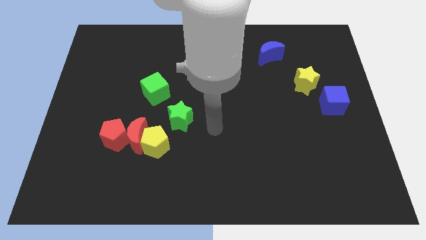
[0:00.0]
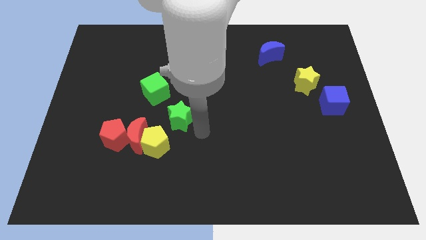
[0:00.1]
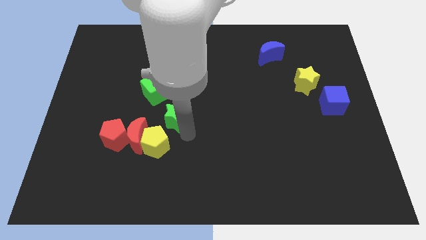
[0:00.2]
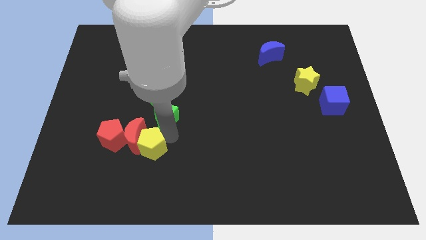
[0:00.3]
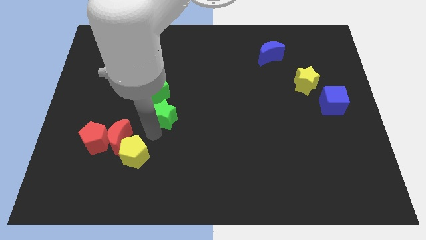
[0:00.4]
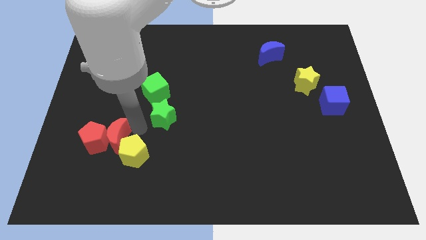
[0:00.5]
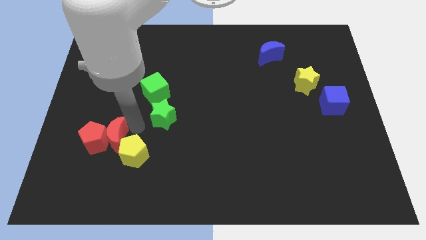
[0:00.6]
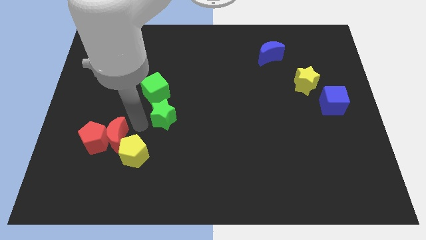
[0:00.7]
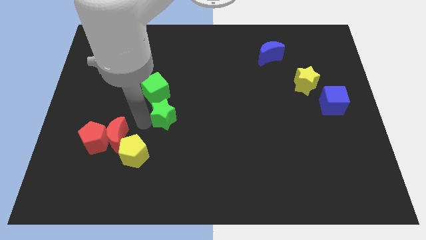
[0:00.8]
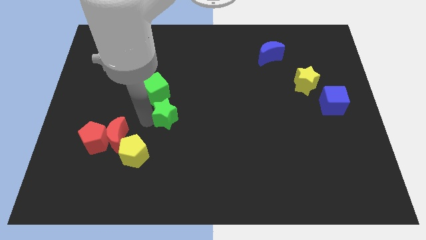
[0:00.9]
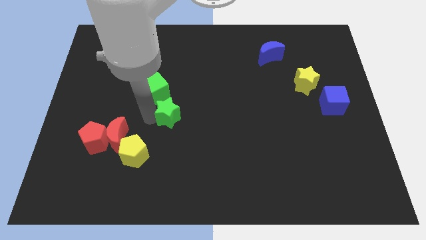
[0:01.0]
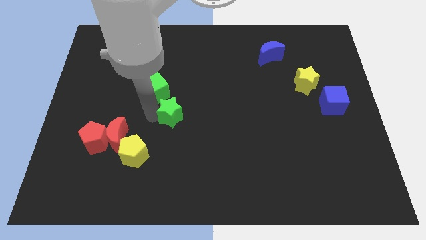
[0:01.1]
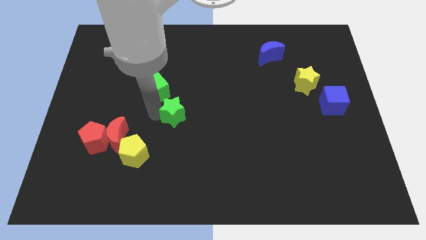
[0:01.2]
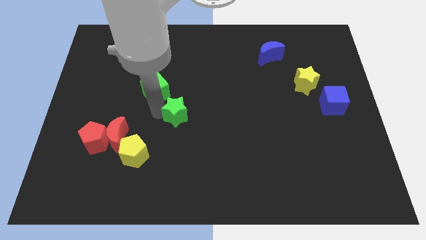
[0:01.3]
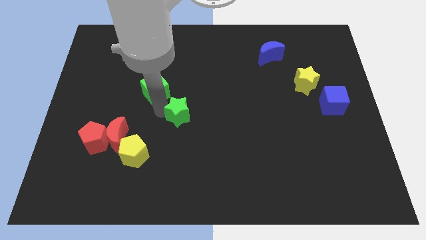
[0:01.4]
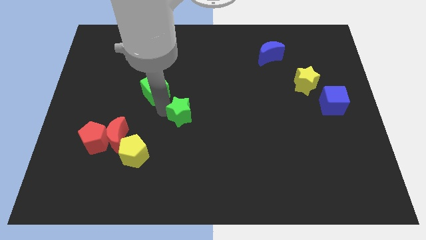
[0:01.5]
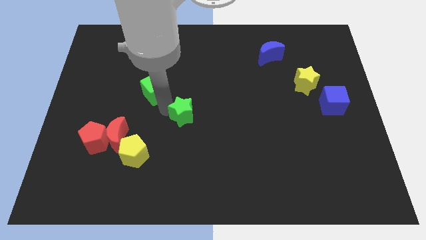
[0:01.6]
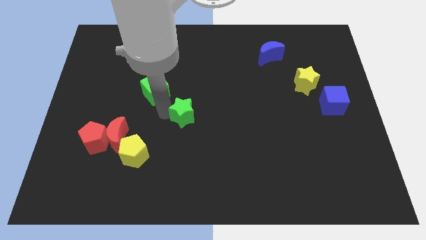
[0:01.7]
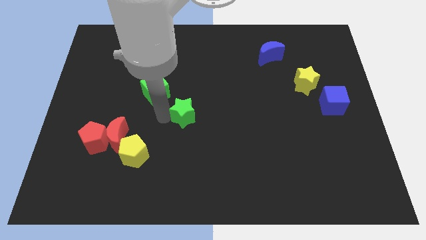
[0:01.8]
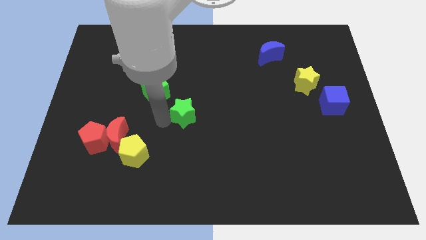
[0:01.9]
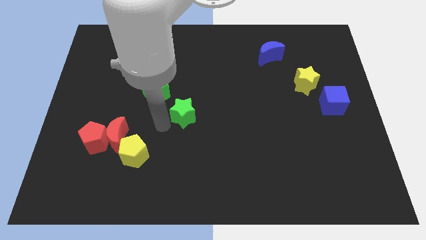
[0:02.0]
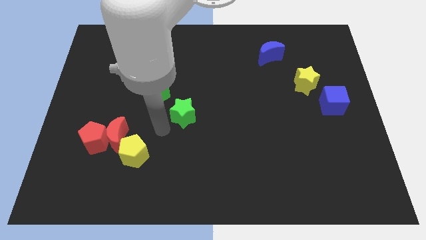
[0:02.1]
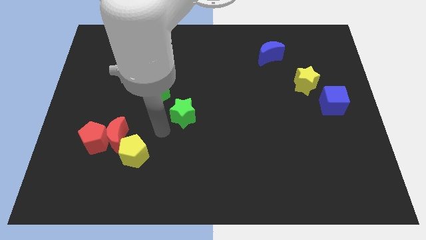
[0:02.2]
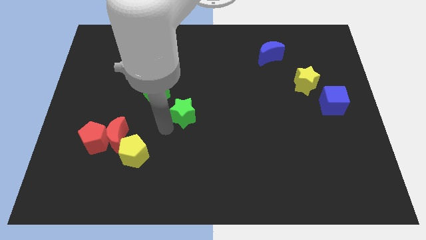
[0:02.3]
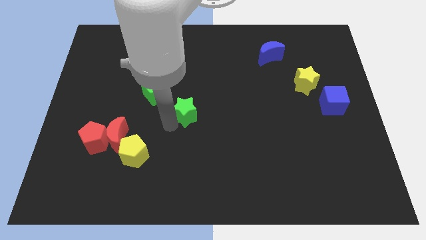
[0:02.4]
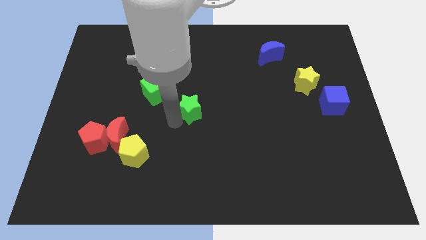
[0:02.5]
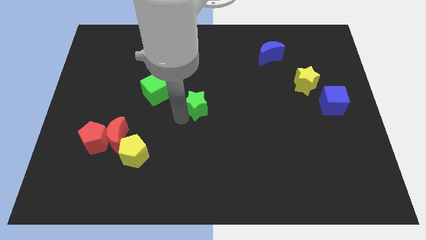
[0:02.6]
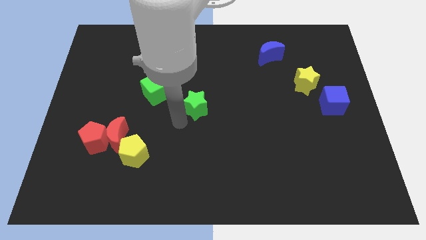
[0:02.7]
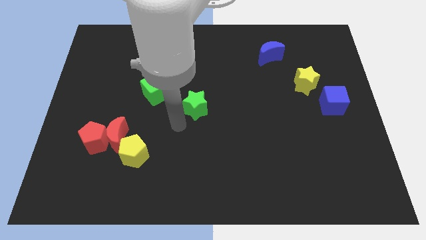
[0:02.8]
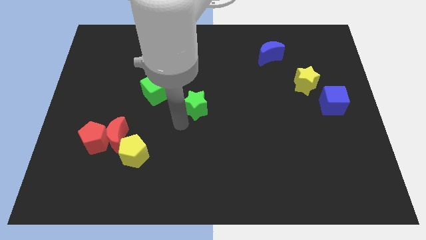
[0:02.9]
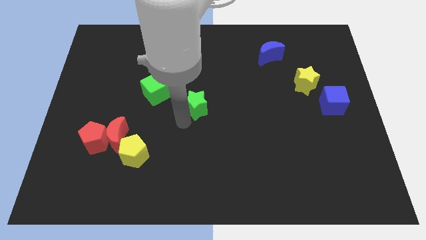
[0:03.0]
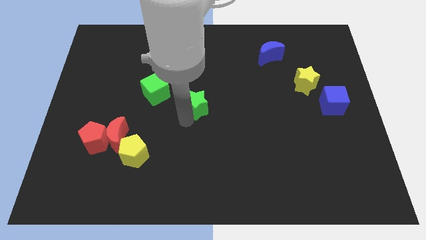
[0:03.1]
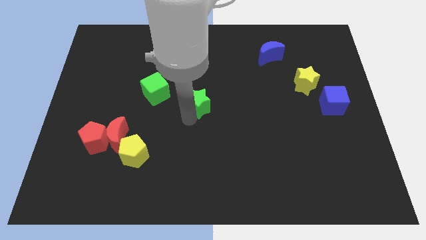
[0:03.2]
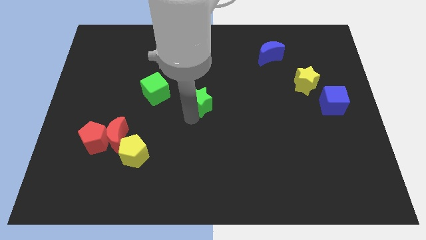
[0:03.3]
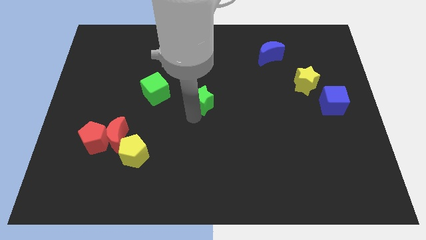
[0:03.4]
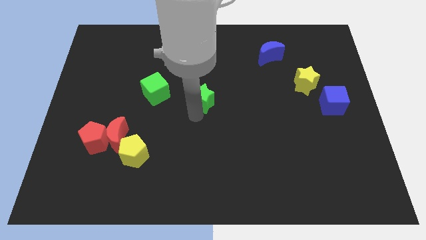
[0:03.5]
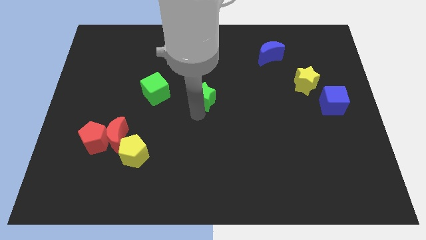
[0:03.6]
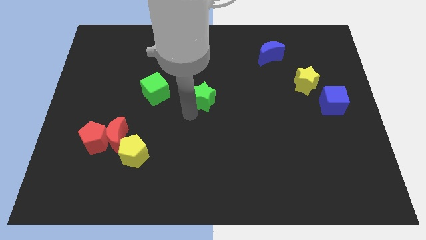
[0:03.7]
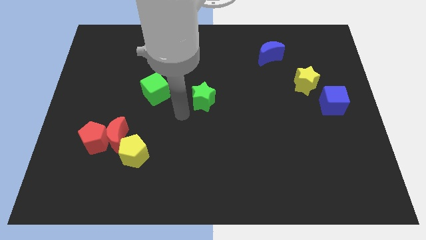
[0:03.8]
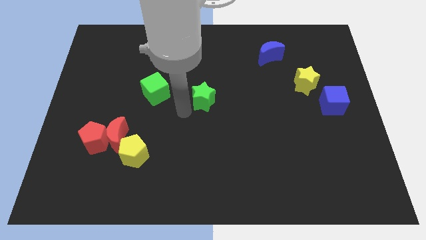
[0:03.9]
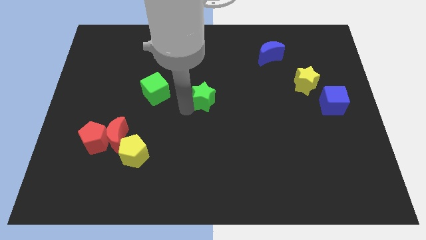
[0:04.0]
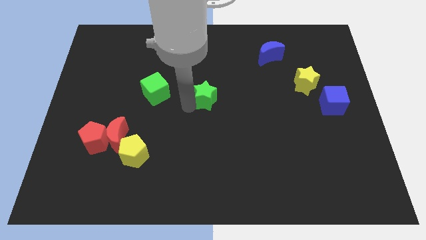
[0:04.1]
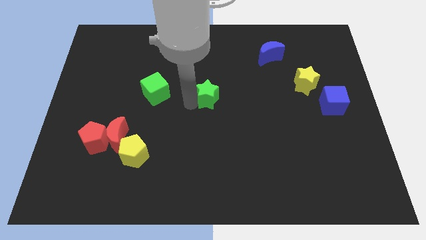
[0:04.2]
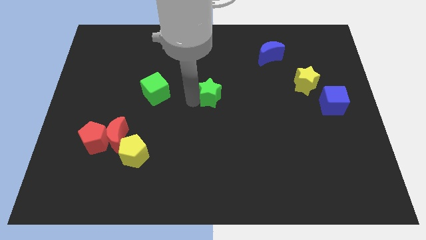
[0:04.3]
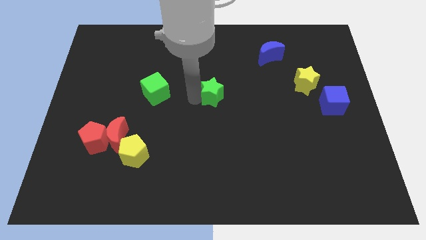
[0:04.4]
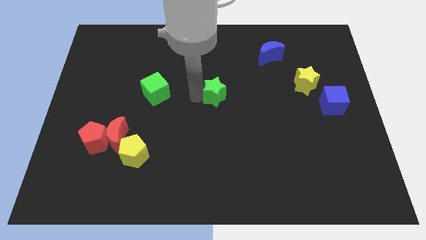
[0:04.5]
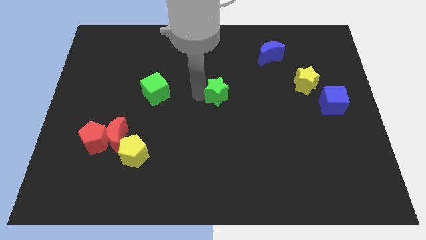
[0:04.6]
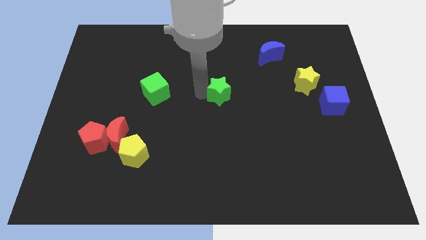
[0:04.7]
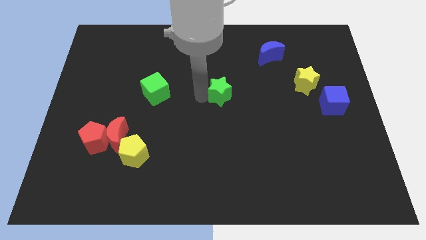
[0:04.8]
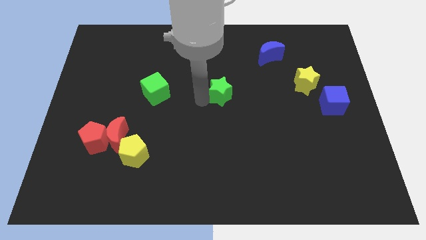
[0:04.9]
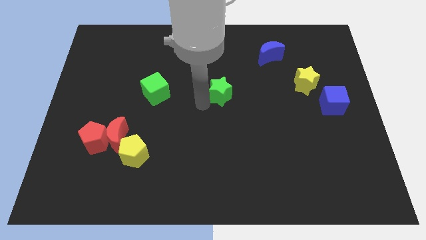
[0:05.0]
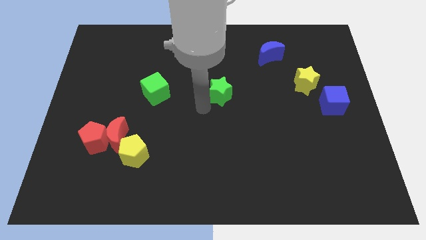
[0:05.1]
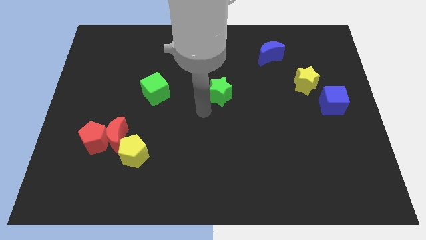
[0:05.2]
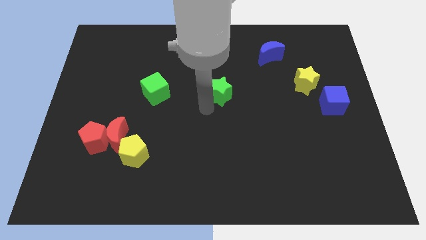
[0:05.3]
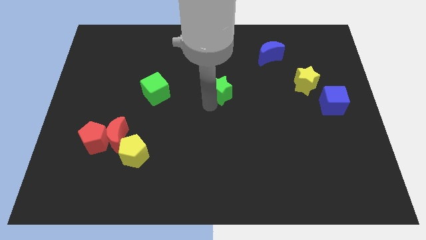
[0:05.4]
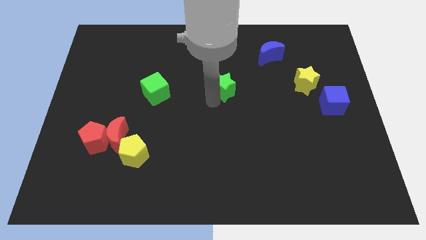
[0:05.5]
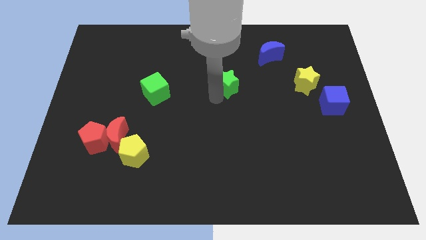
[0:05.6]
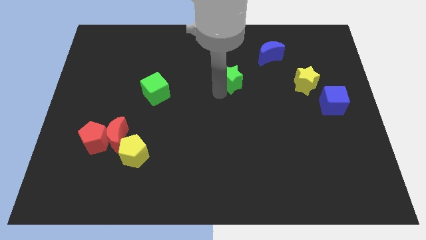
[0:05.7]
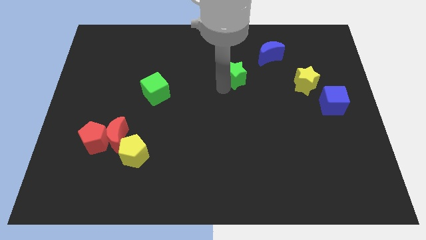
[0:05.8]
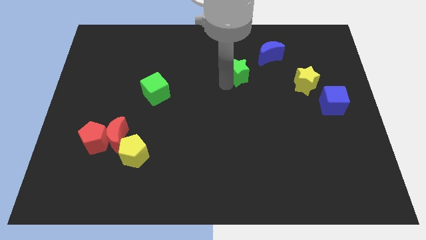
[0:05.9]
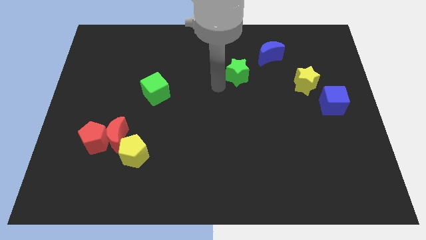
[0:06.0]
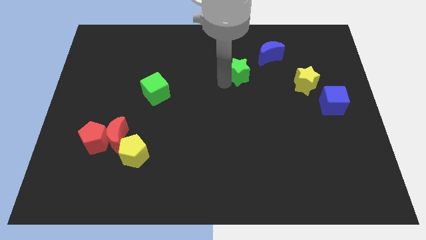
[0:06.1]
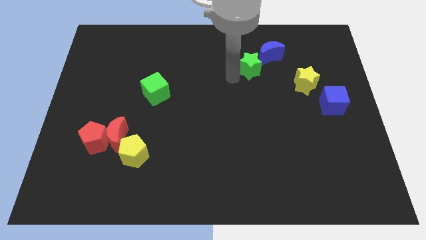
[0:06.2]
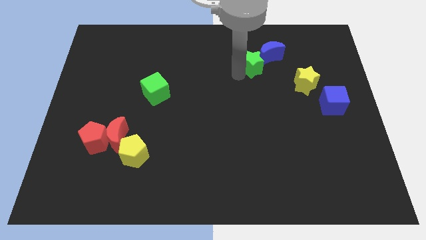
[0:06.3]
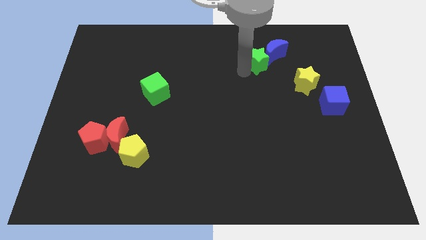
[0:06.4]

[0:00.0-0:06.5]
push the green star towards the blue moon
